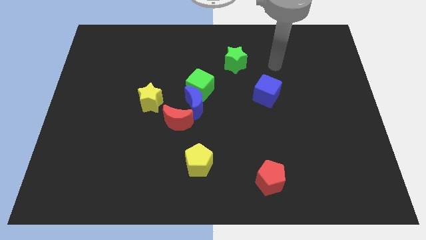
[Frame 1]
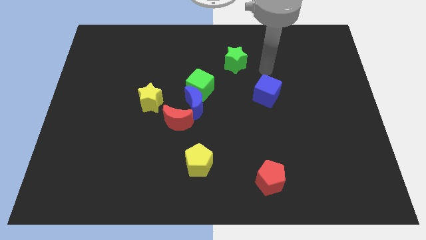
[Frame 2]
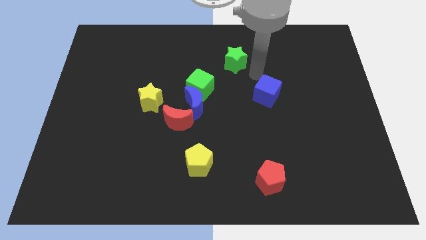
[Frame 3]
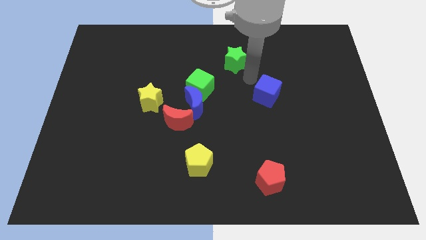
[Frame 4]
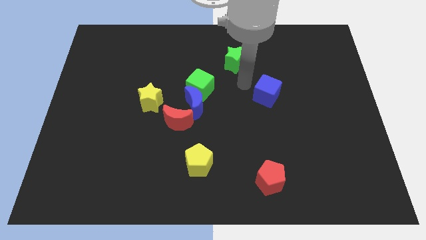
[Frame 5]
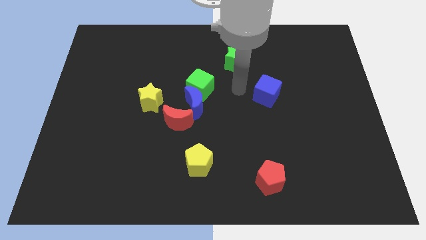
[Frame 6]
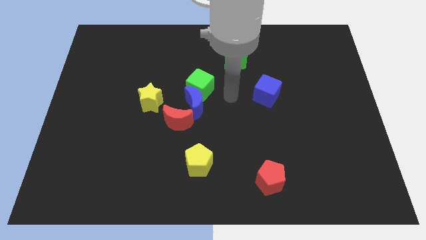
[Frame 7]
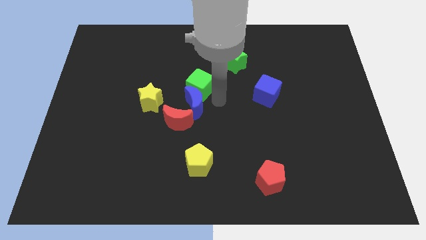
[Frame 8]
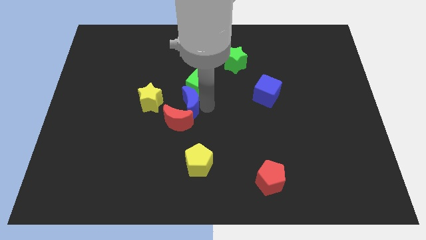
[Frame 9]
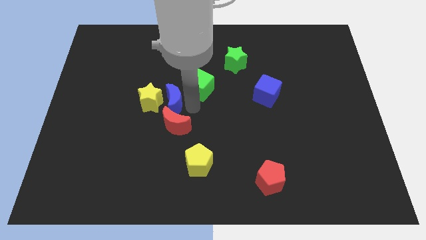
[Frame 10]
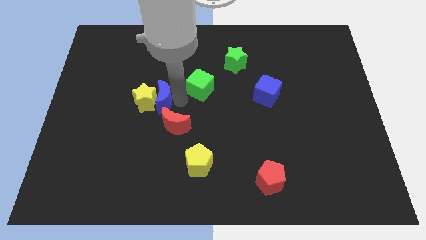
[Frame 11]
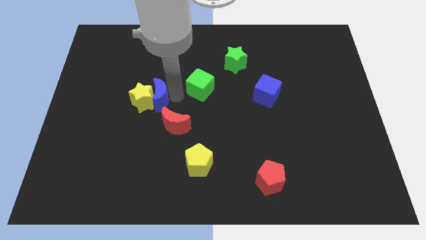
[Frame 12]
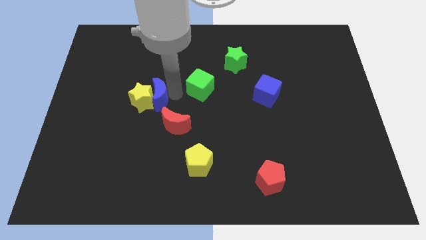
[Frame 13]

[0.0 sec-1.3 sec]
separate the green cube from the blue moon

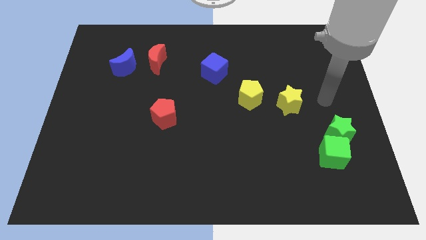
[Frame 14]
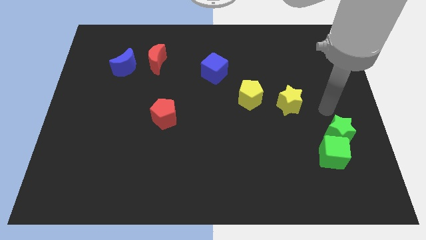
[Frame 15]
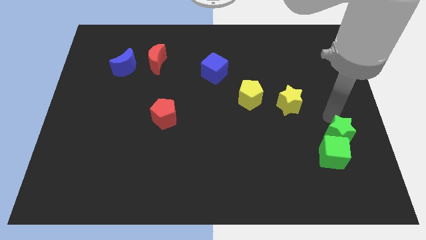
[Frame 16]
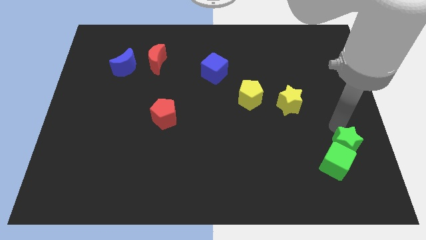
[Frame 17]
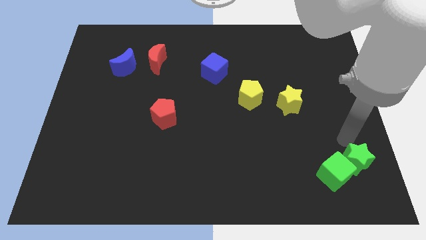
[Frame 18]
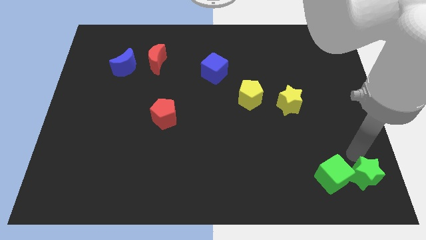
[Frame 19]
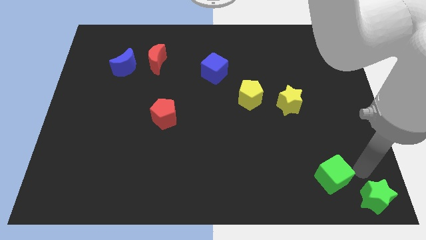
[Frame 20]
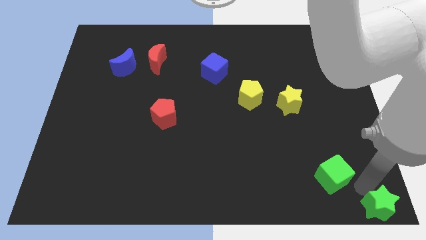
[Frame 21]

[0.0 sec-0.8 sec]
separate the green cube from the green star

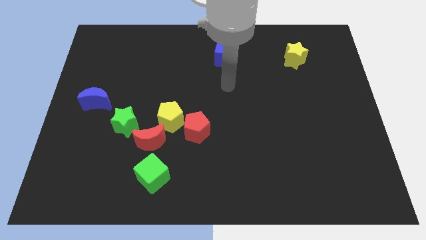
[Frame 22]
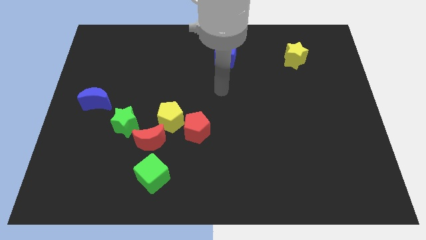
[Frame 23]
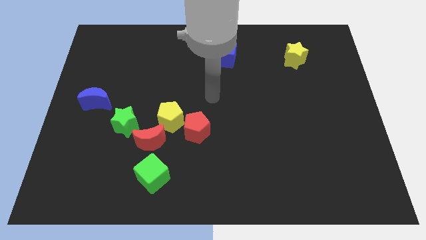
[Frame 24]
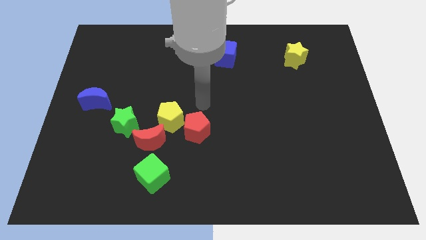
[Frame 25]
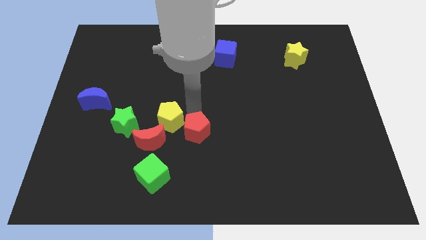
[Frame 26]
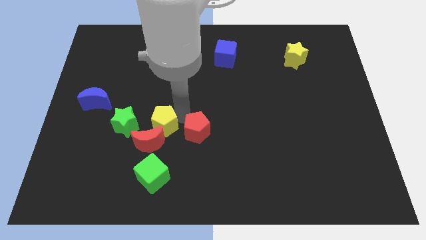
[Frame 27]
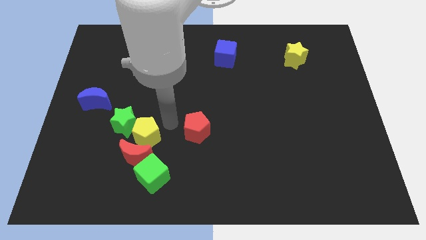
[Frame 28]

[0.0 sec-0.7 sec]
pull the red pentagon apart from the yellow pentagon

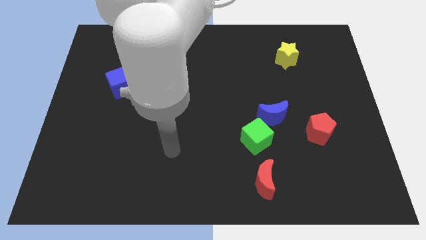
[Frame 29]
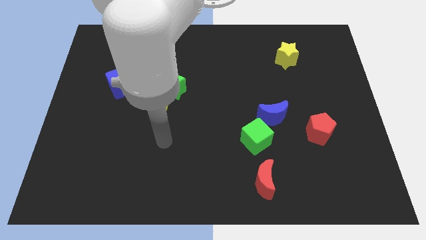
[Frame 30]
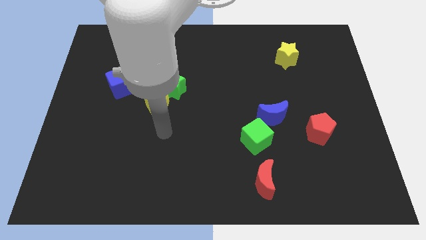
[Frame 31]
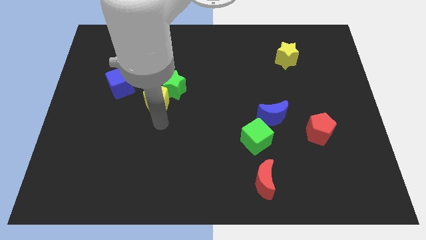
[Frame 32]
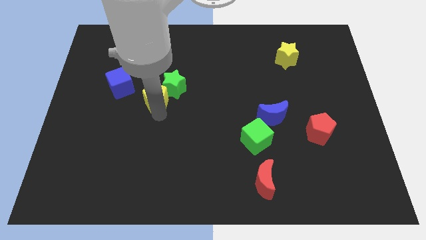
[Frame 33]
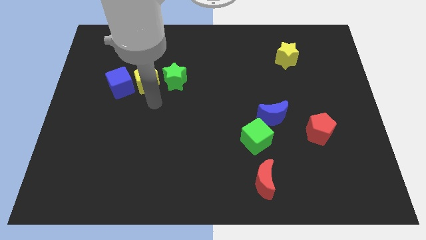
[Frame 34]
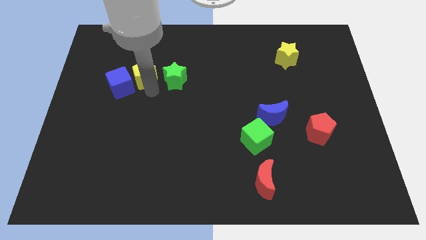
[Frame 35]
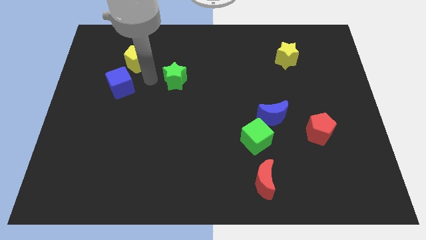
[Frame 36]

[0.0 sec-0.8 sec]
pull the green star apart from the yellow pentagon

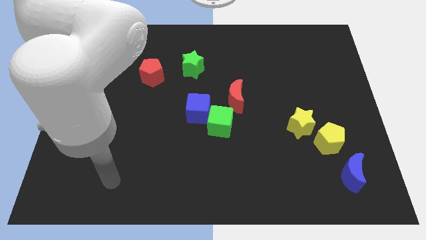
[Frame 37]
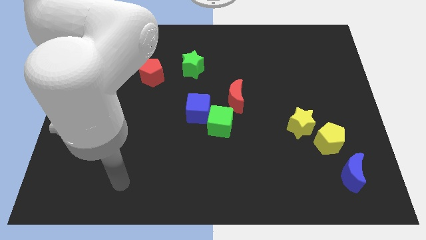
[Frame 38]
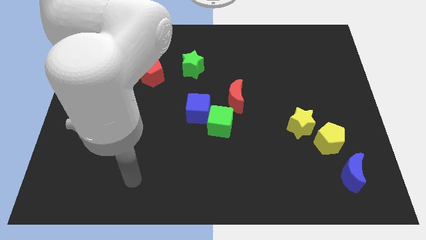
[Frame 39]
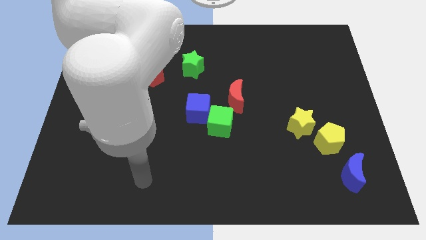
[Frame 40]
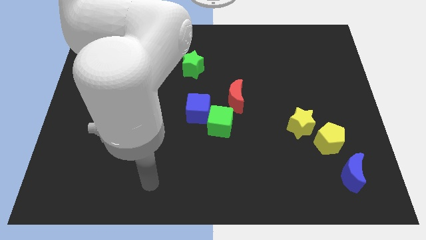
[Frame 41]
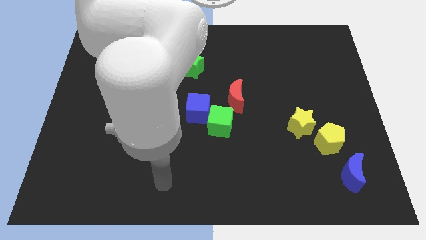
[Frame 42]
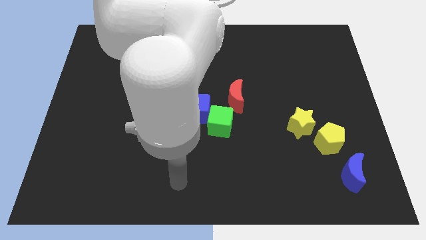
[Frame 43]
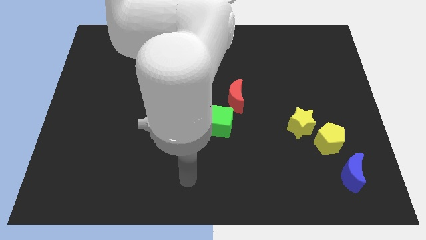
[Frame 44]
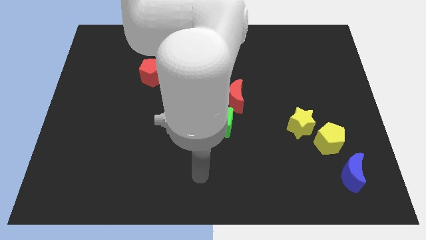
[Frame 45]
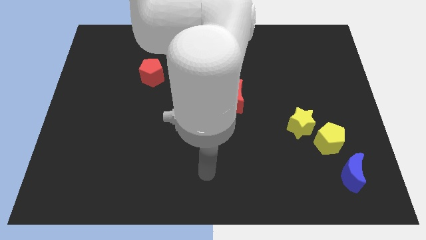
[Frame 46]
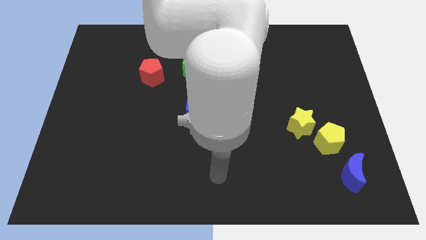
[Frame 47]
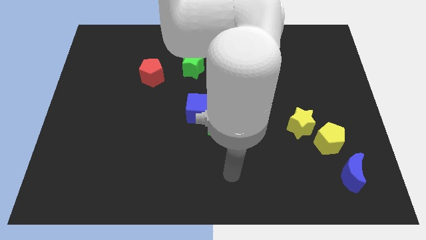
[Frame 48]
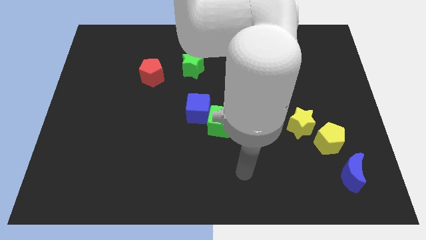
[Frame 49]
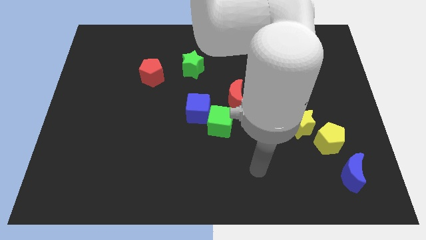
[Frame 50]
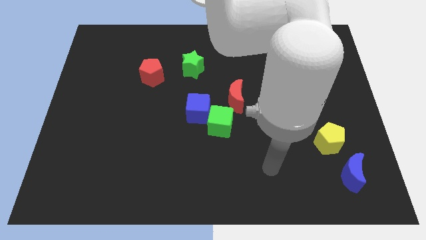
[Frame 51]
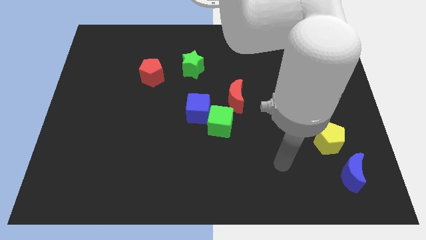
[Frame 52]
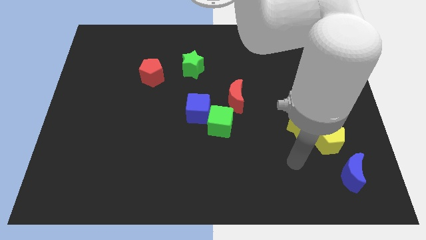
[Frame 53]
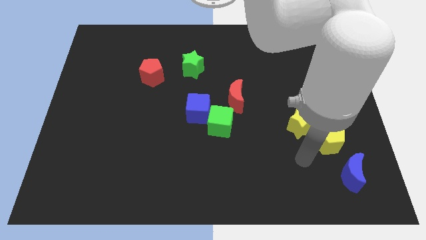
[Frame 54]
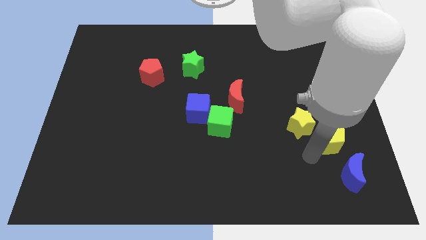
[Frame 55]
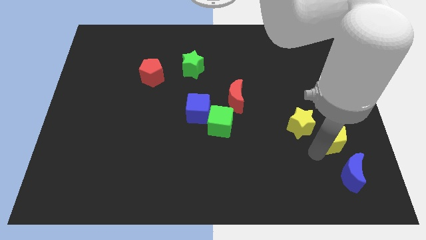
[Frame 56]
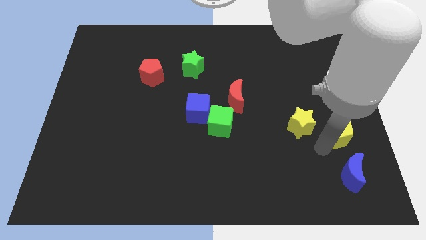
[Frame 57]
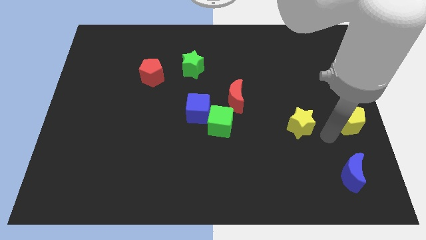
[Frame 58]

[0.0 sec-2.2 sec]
pull the yellow star apart from the yellow pentagon

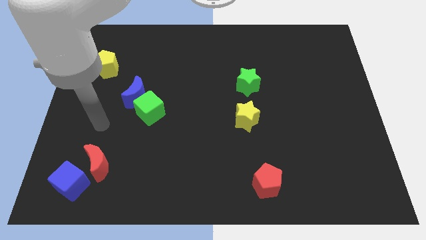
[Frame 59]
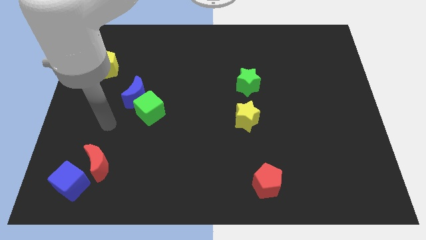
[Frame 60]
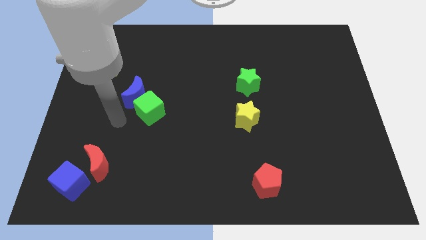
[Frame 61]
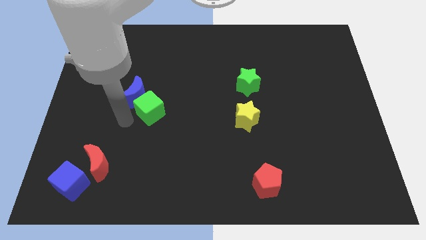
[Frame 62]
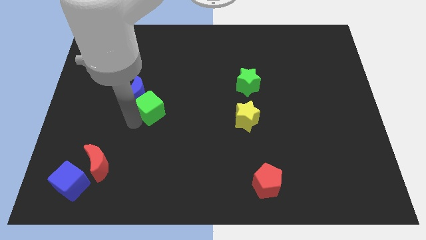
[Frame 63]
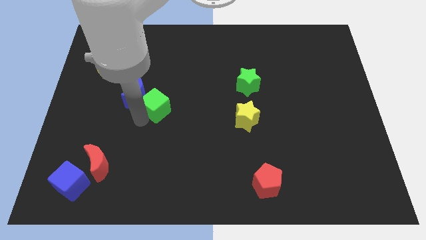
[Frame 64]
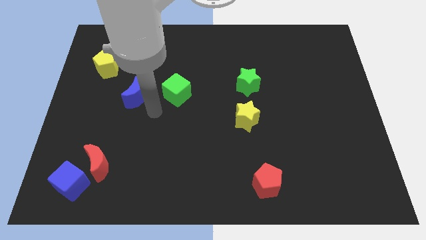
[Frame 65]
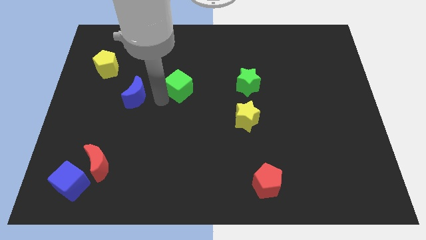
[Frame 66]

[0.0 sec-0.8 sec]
pull the blue moon apart from the green cube

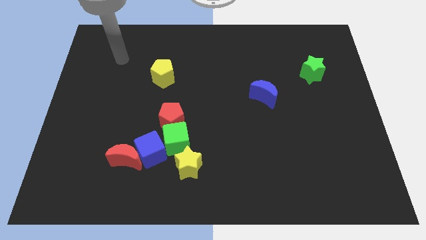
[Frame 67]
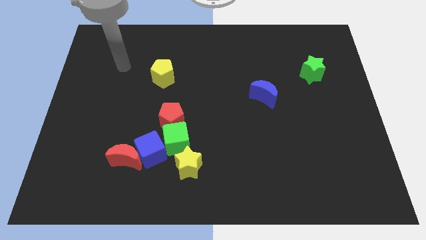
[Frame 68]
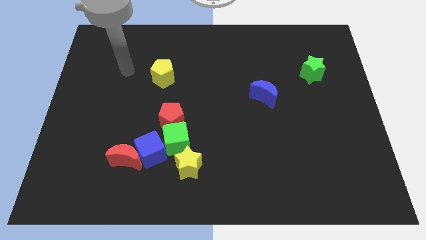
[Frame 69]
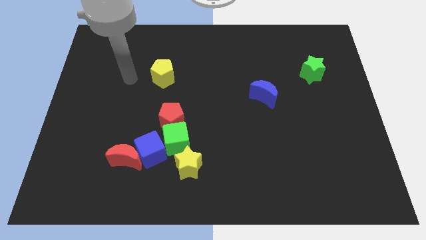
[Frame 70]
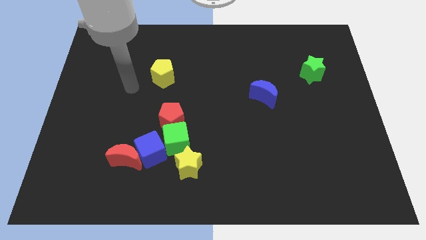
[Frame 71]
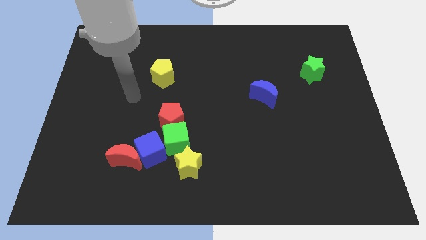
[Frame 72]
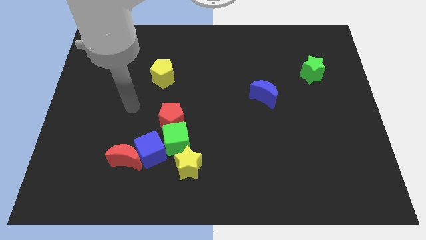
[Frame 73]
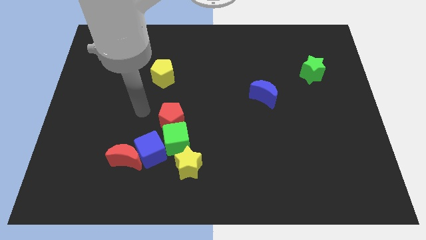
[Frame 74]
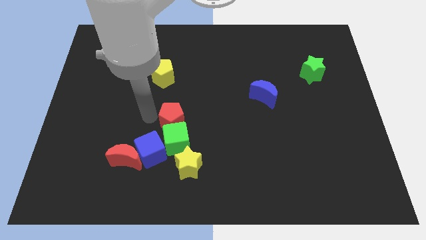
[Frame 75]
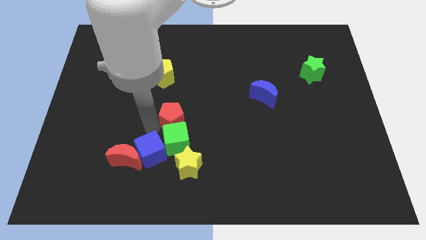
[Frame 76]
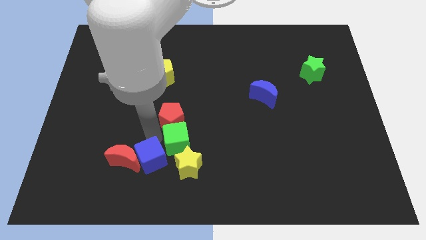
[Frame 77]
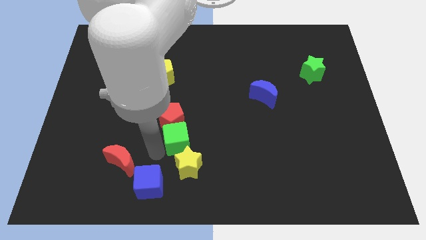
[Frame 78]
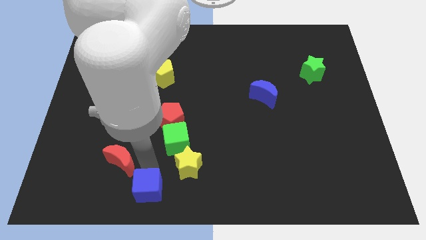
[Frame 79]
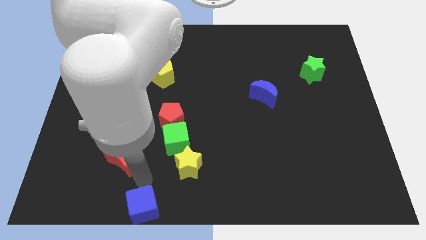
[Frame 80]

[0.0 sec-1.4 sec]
separate the red moon from the blue cube

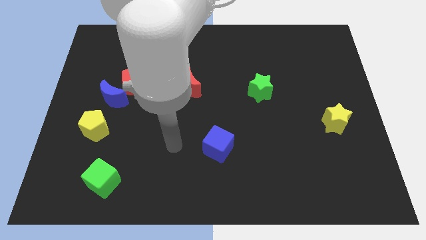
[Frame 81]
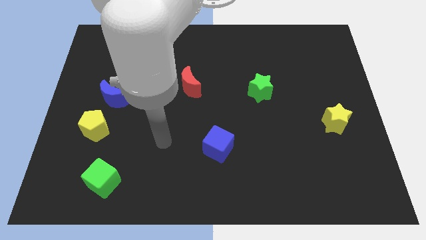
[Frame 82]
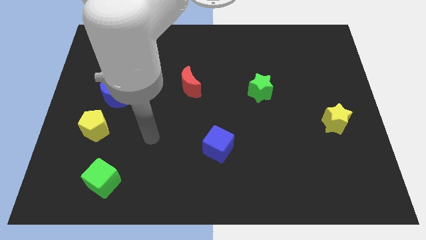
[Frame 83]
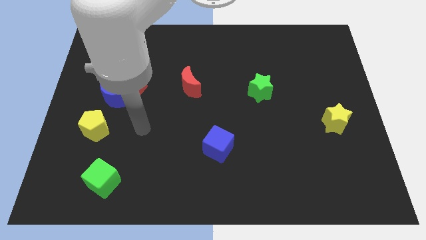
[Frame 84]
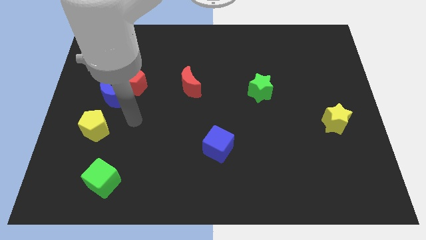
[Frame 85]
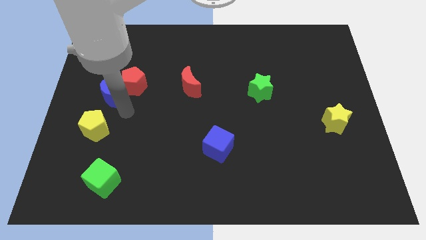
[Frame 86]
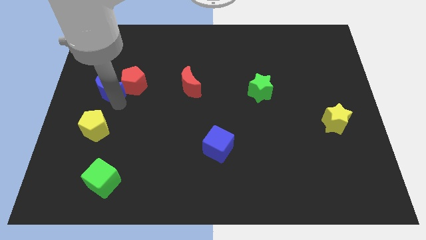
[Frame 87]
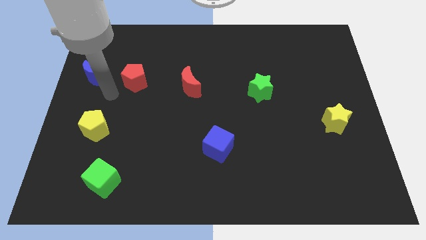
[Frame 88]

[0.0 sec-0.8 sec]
separate the red pentagon from the blue moon

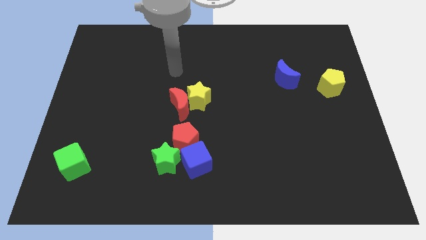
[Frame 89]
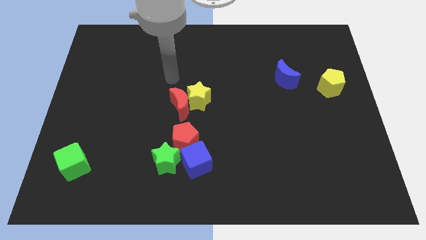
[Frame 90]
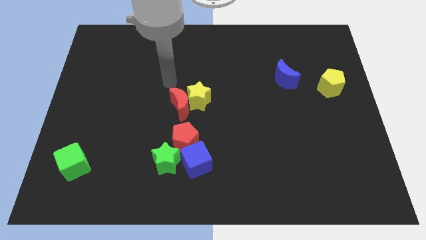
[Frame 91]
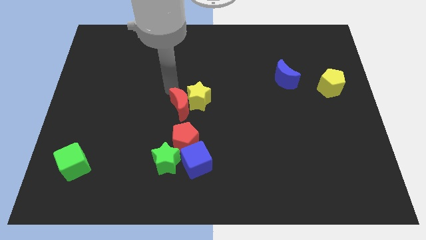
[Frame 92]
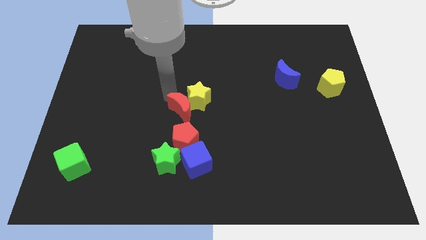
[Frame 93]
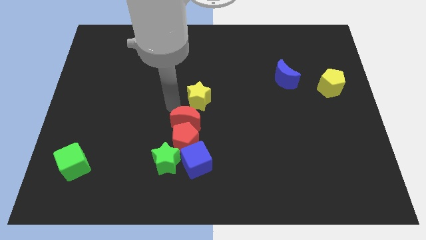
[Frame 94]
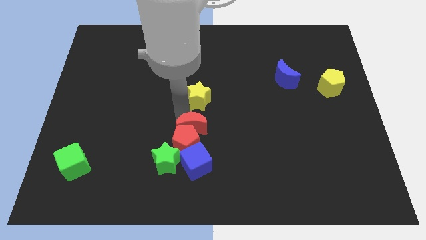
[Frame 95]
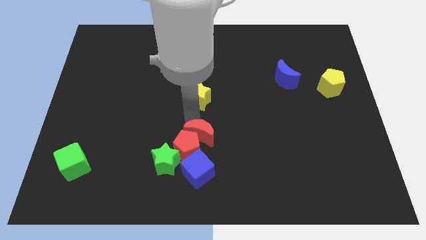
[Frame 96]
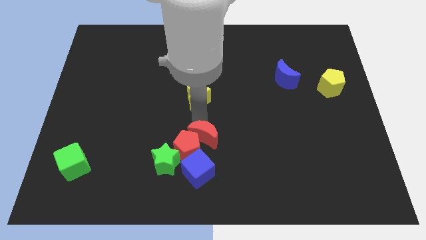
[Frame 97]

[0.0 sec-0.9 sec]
move the yellow star away from the red moon
